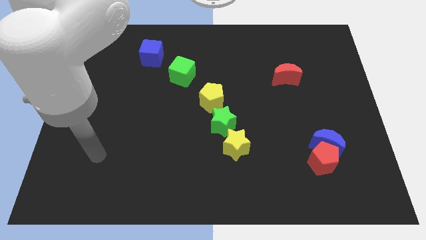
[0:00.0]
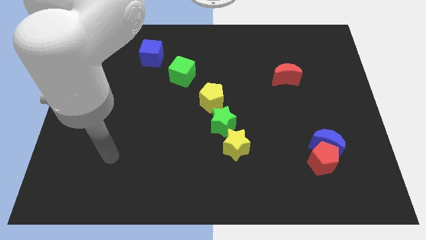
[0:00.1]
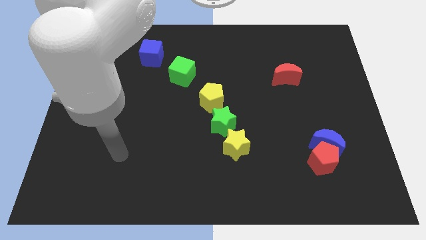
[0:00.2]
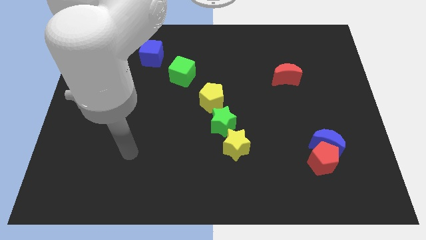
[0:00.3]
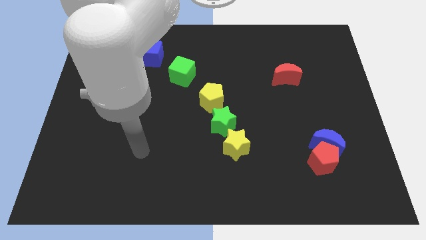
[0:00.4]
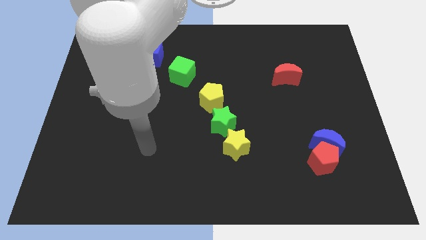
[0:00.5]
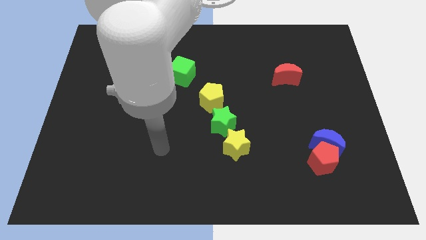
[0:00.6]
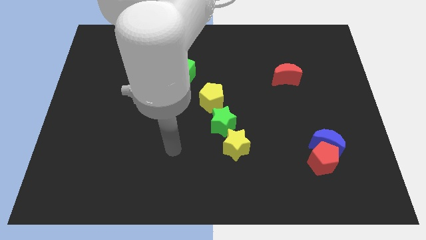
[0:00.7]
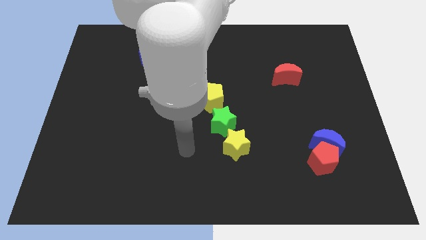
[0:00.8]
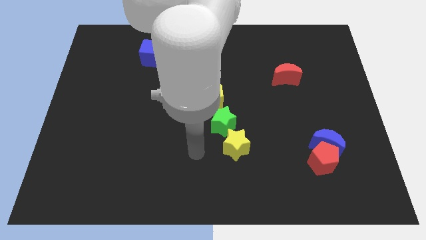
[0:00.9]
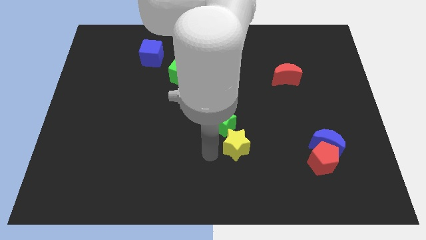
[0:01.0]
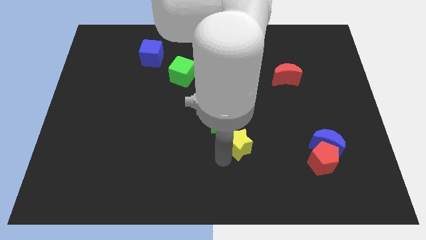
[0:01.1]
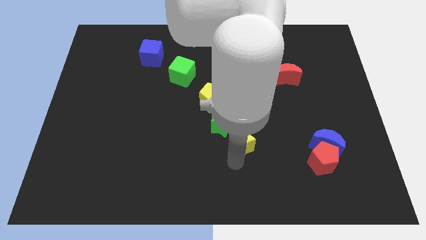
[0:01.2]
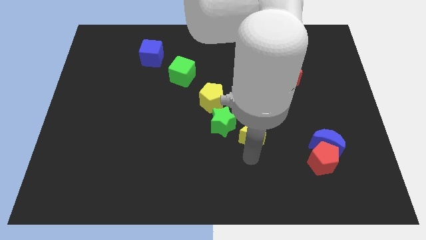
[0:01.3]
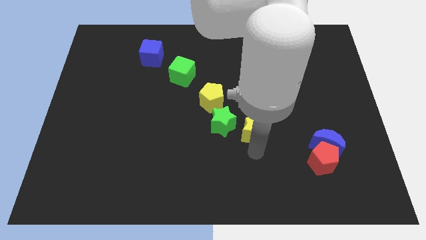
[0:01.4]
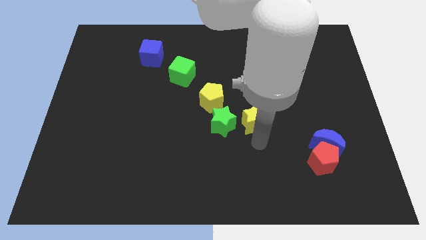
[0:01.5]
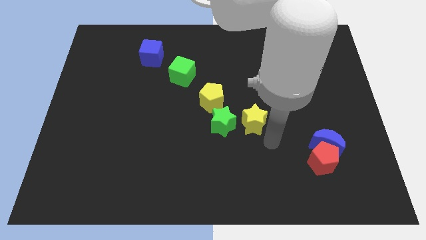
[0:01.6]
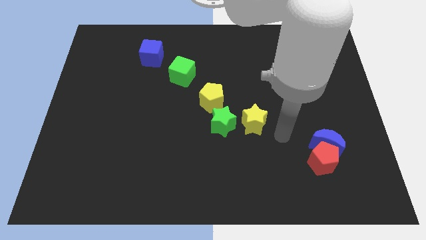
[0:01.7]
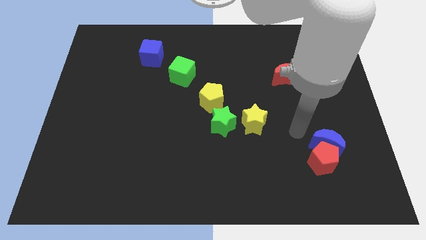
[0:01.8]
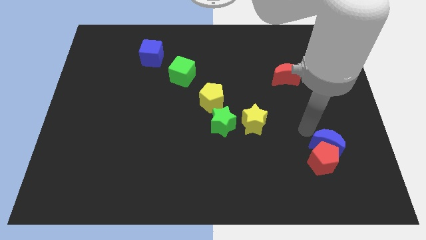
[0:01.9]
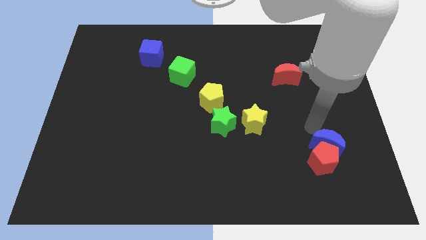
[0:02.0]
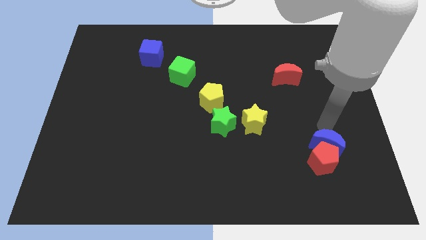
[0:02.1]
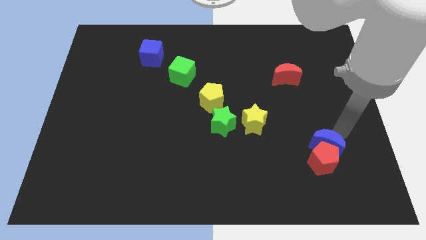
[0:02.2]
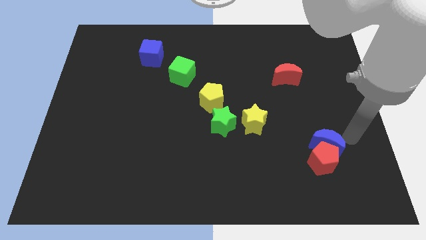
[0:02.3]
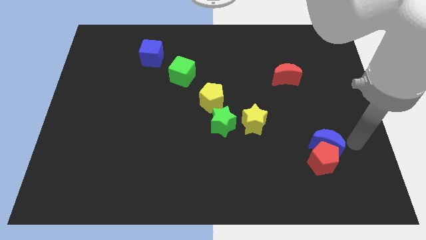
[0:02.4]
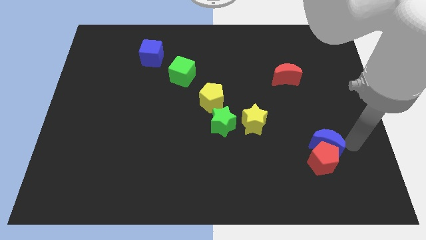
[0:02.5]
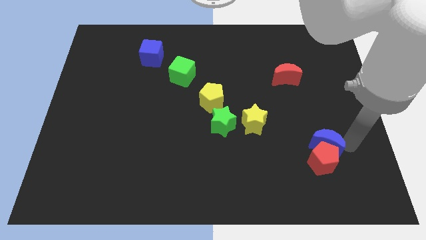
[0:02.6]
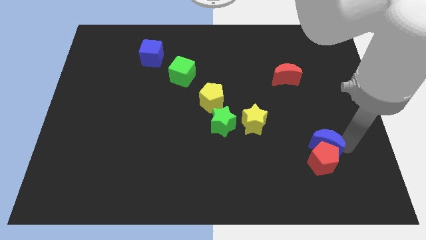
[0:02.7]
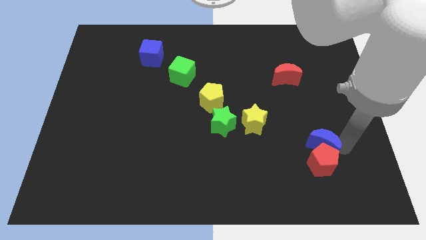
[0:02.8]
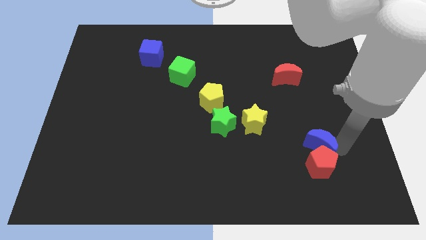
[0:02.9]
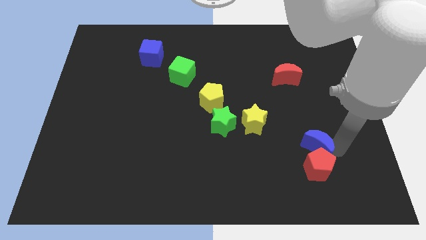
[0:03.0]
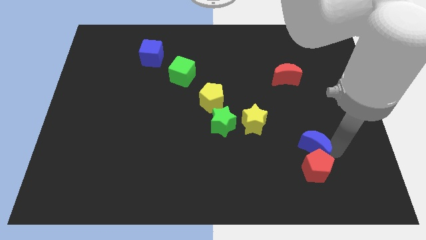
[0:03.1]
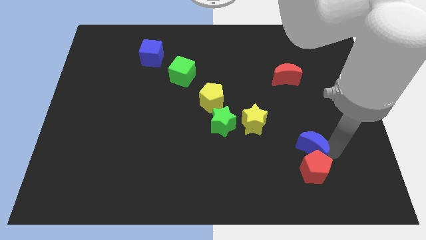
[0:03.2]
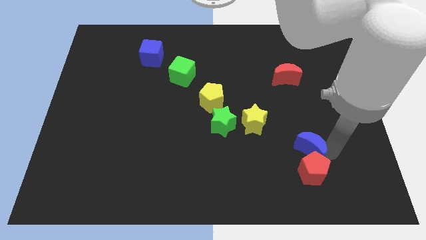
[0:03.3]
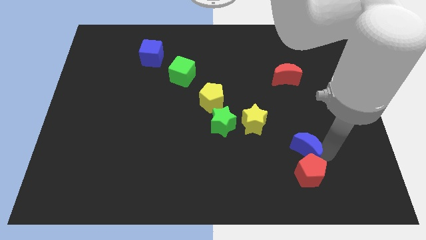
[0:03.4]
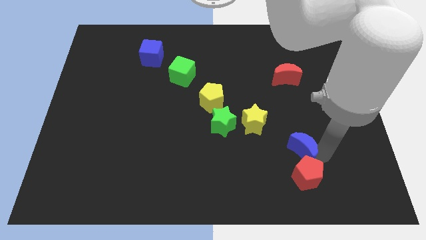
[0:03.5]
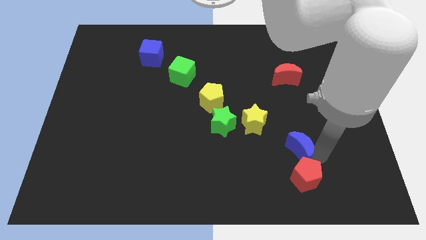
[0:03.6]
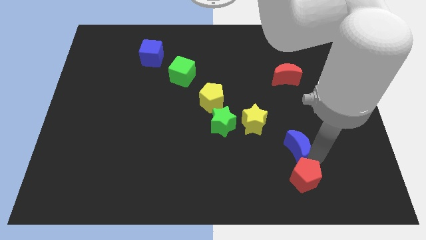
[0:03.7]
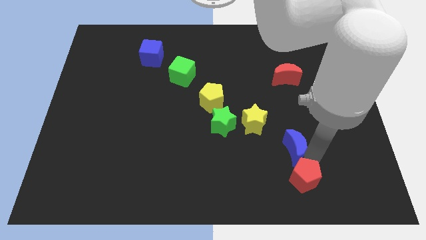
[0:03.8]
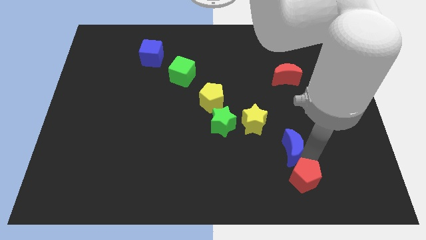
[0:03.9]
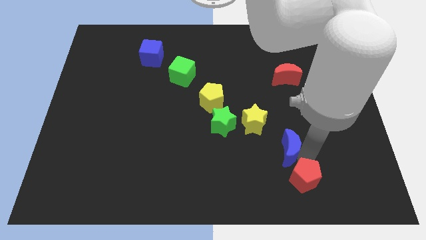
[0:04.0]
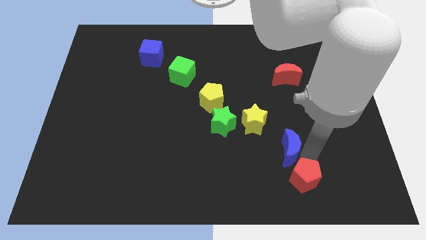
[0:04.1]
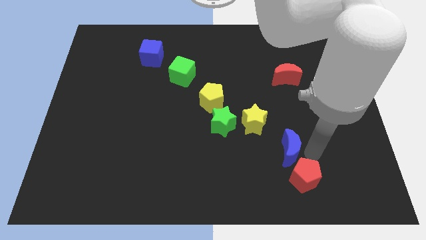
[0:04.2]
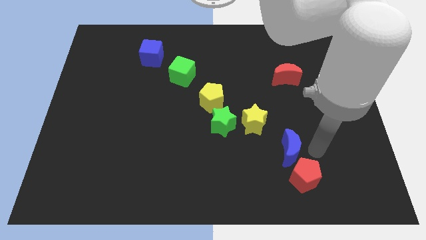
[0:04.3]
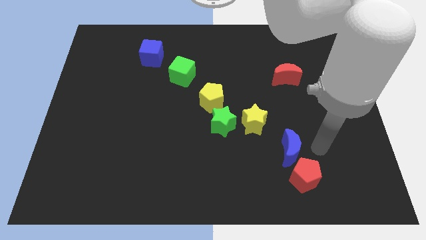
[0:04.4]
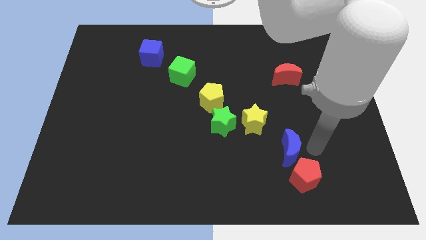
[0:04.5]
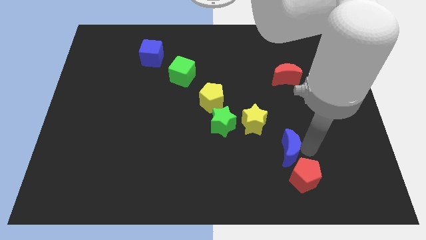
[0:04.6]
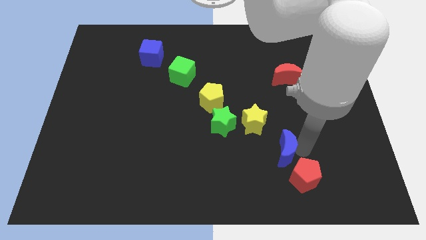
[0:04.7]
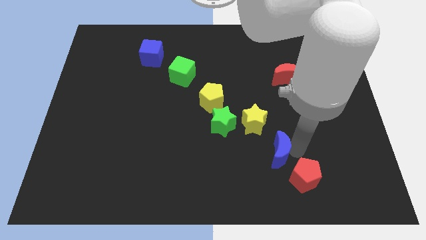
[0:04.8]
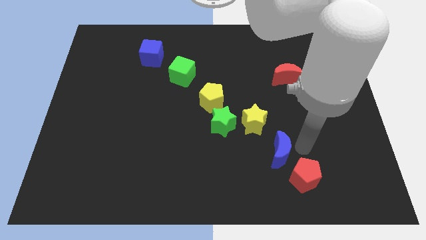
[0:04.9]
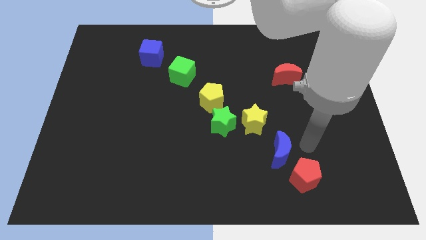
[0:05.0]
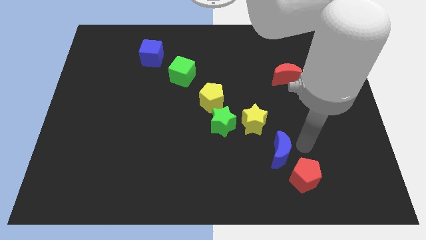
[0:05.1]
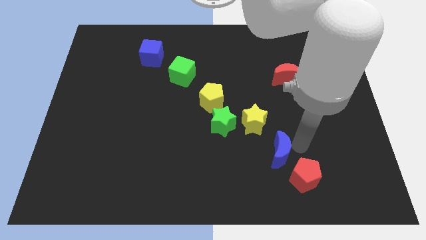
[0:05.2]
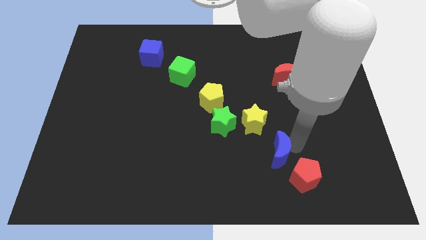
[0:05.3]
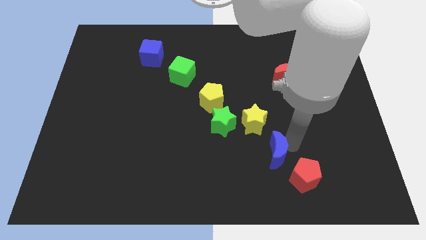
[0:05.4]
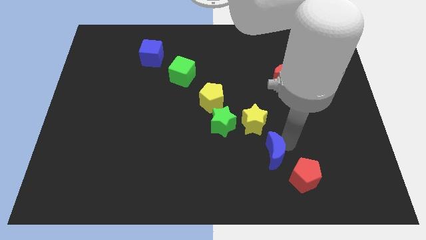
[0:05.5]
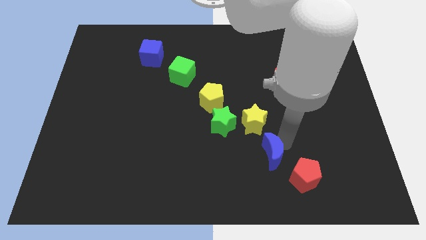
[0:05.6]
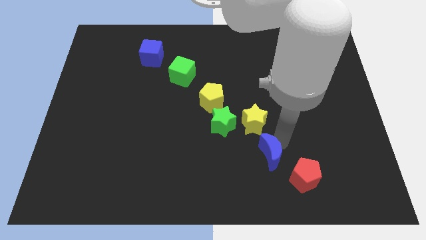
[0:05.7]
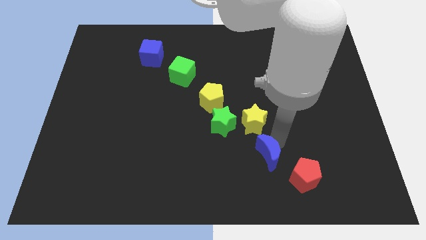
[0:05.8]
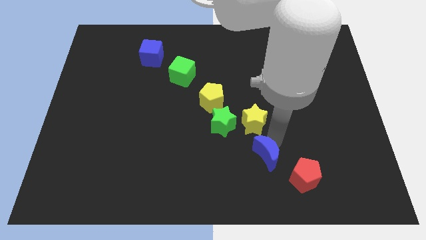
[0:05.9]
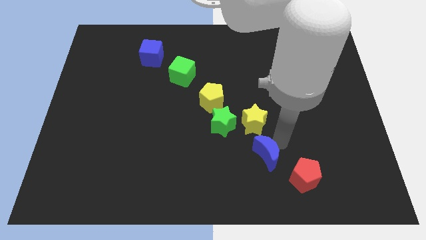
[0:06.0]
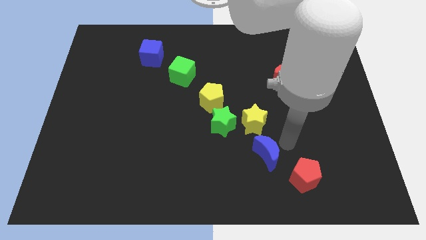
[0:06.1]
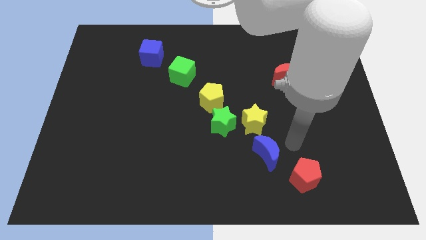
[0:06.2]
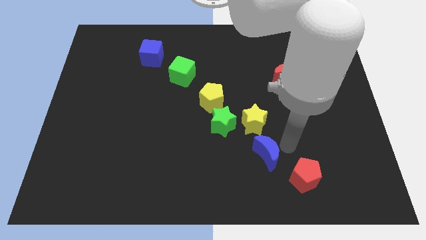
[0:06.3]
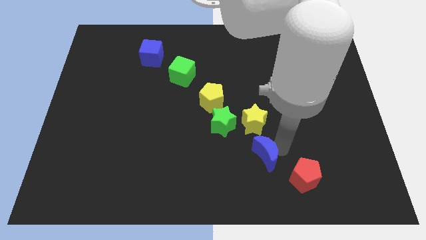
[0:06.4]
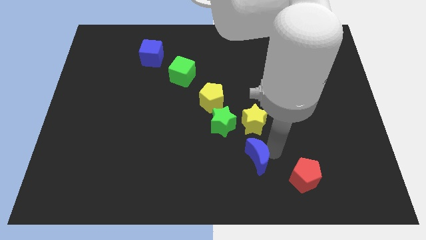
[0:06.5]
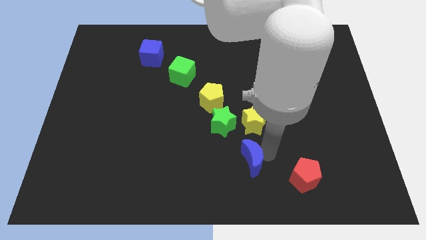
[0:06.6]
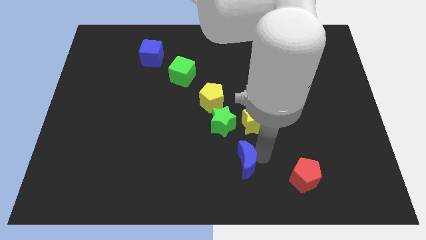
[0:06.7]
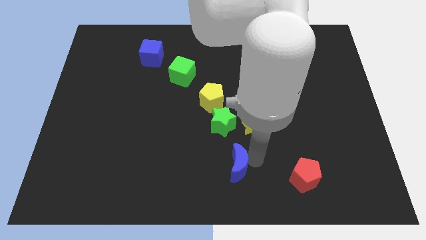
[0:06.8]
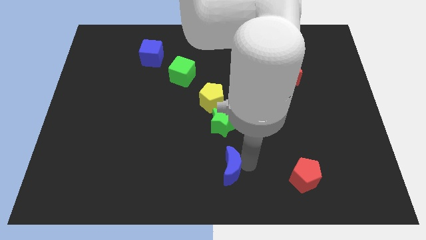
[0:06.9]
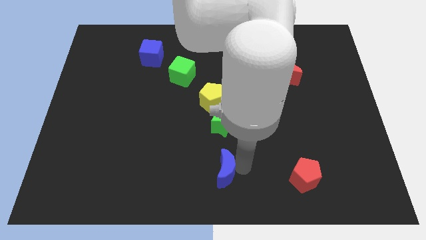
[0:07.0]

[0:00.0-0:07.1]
move the blue moon left

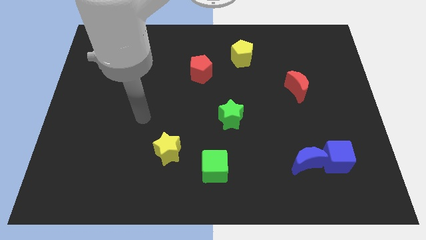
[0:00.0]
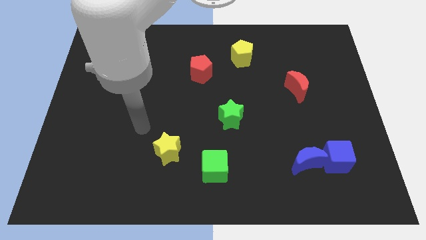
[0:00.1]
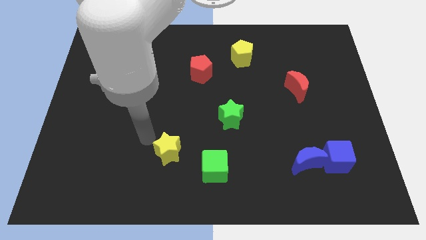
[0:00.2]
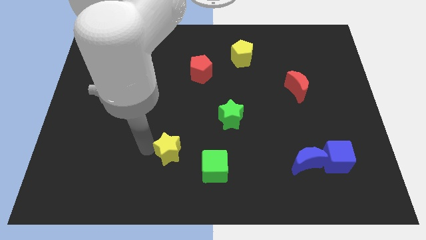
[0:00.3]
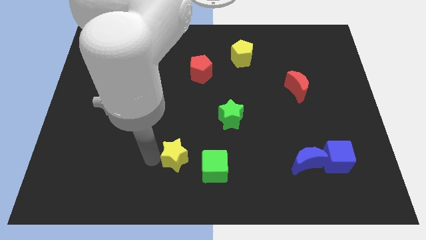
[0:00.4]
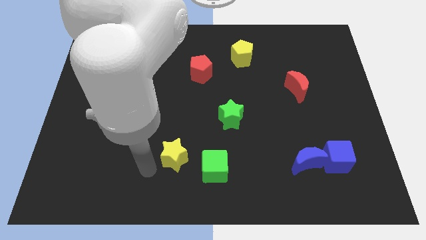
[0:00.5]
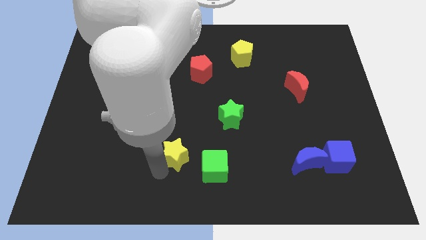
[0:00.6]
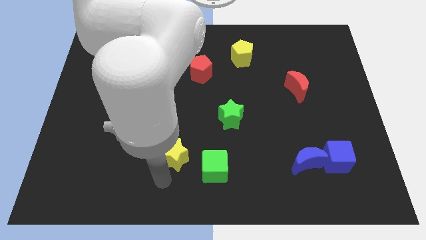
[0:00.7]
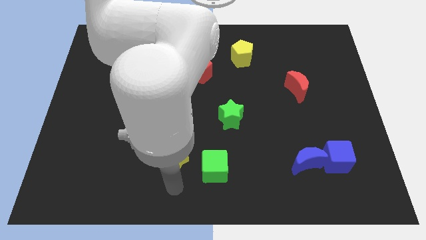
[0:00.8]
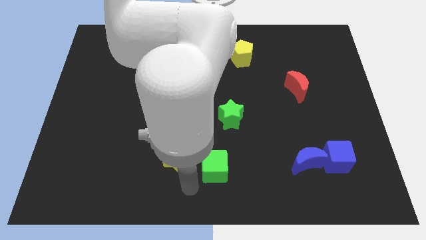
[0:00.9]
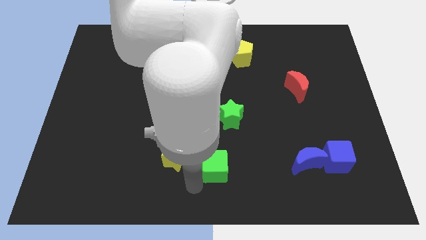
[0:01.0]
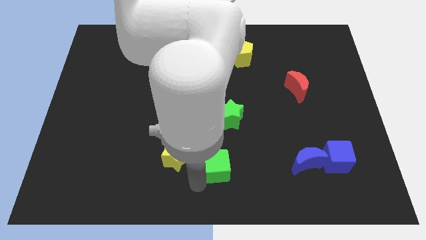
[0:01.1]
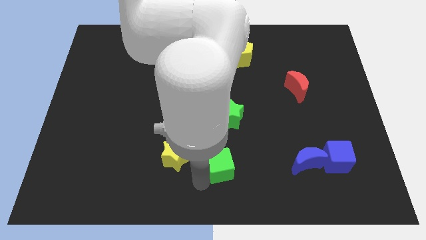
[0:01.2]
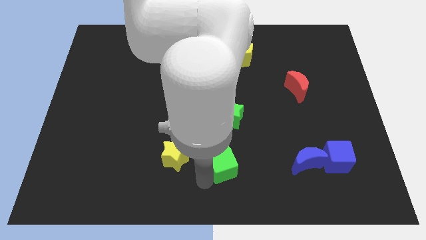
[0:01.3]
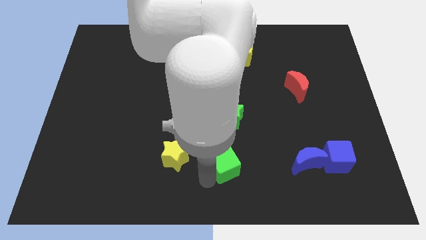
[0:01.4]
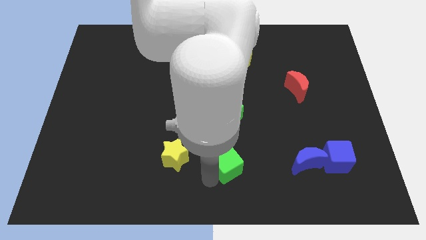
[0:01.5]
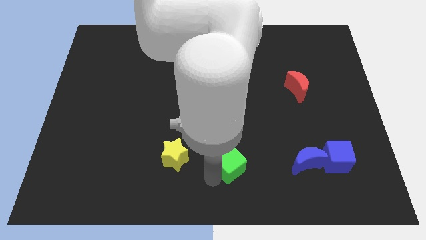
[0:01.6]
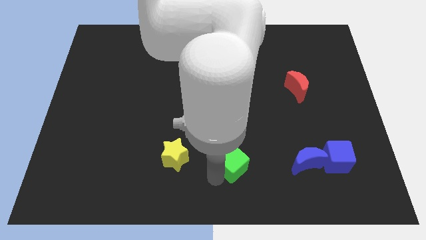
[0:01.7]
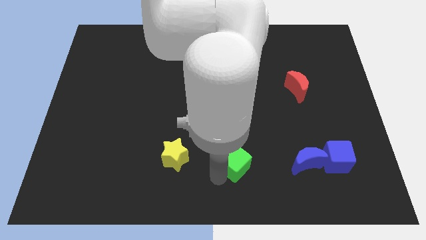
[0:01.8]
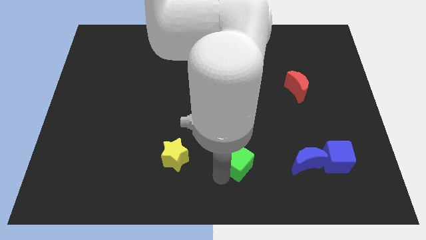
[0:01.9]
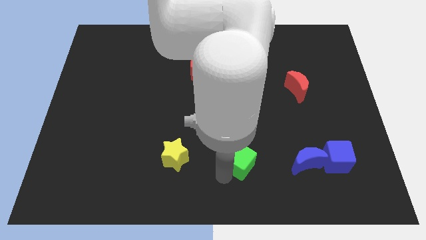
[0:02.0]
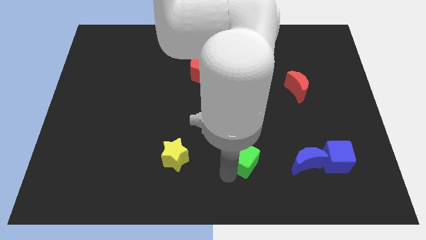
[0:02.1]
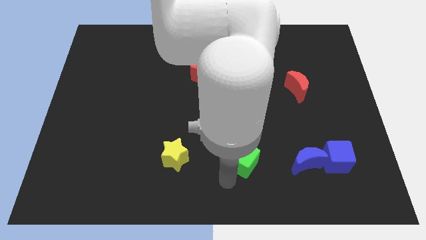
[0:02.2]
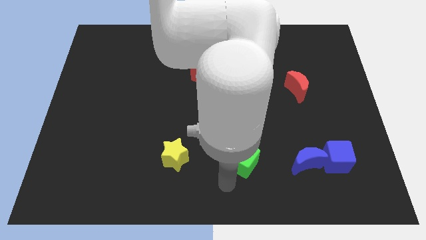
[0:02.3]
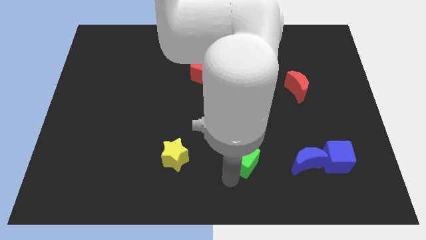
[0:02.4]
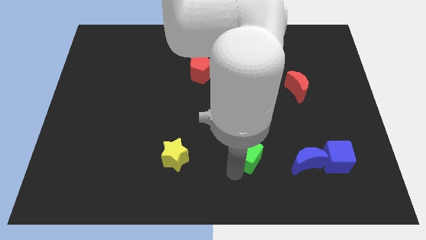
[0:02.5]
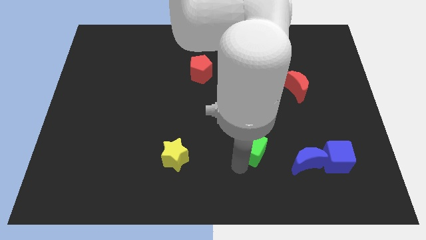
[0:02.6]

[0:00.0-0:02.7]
slightly push the green cube upwards and to the right diagonally
